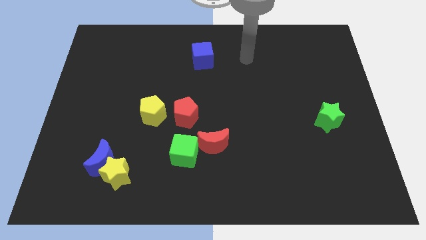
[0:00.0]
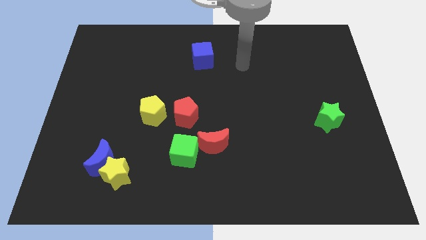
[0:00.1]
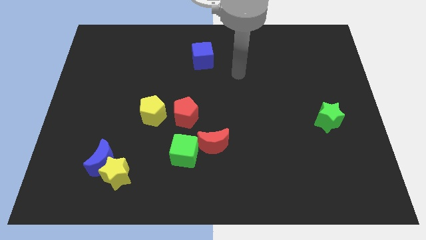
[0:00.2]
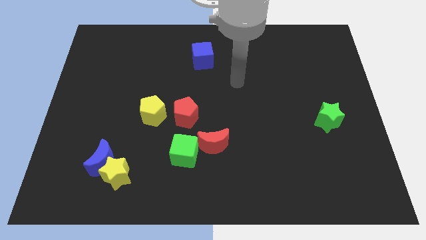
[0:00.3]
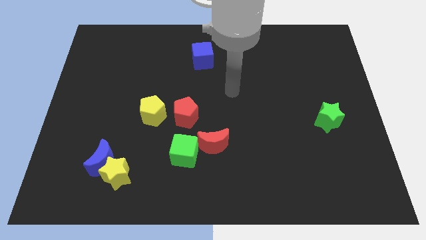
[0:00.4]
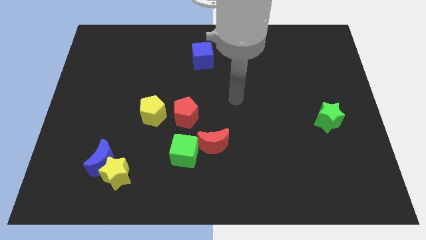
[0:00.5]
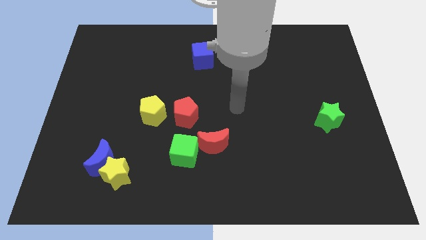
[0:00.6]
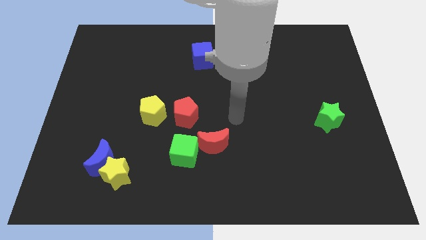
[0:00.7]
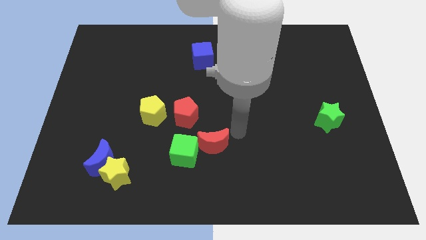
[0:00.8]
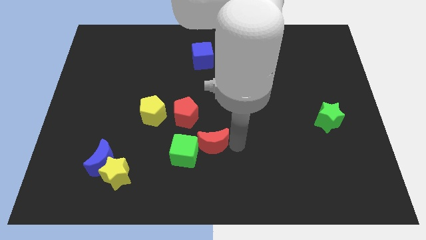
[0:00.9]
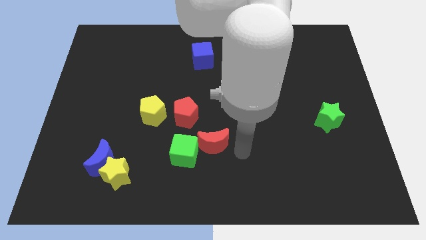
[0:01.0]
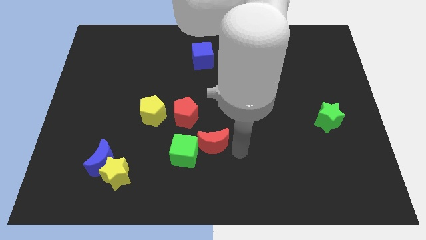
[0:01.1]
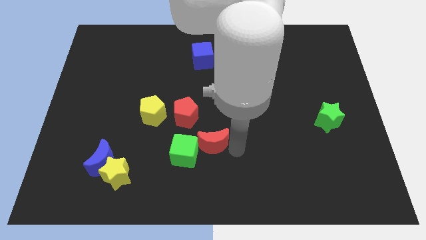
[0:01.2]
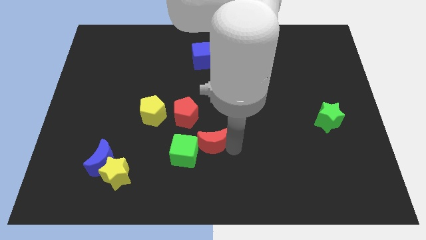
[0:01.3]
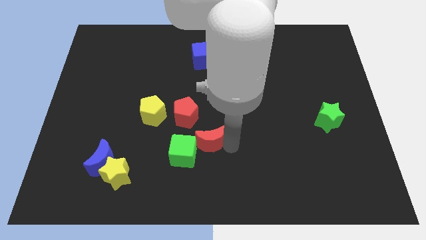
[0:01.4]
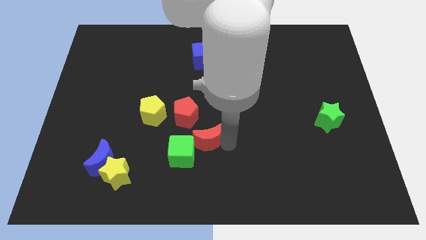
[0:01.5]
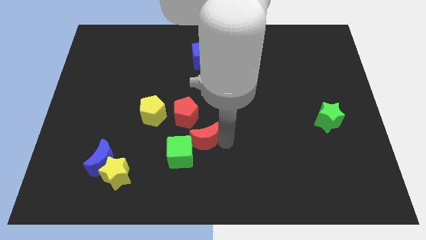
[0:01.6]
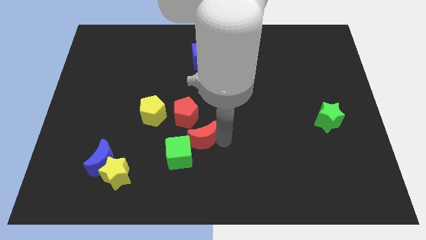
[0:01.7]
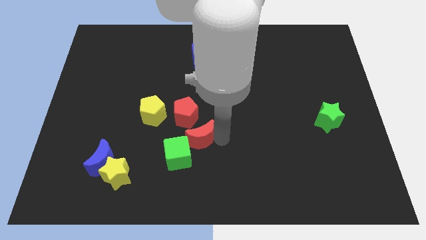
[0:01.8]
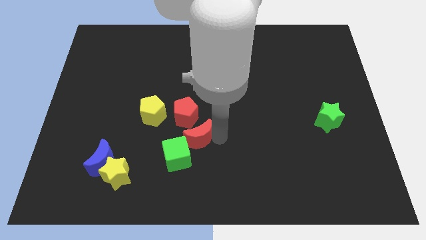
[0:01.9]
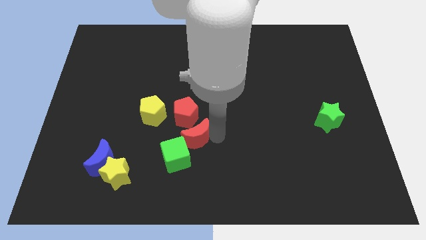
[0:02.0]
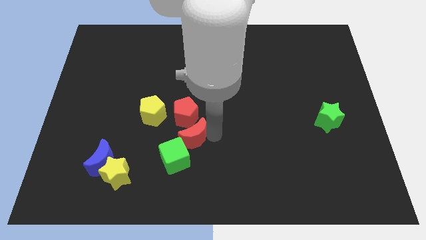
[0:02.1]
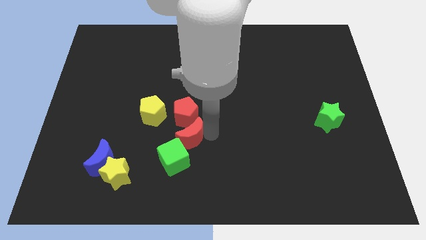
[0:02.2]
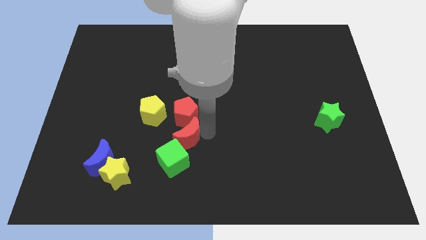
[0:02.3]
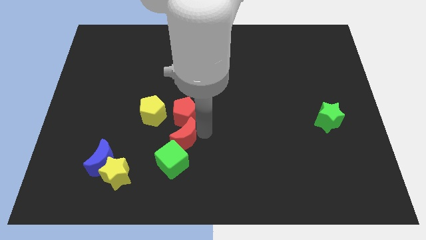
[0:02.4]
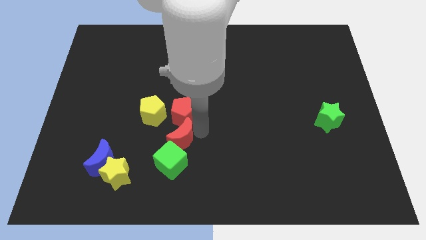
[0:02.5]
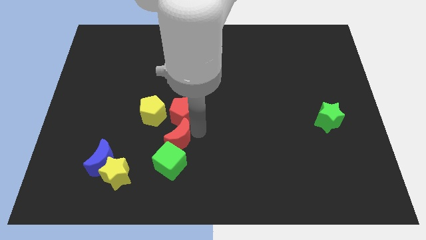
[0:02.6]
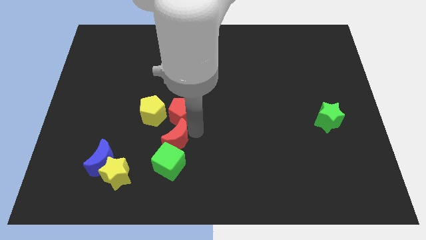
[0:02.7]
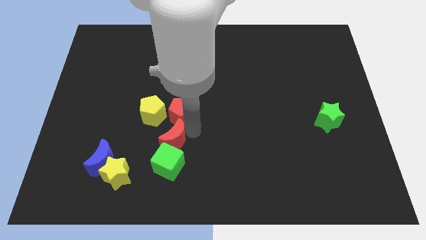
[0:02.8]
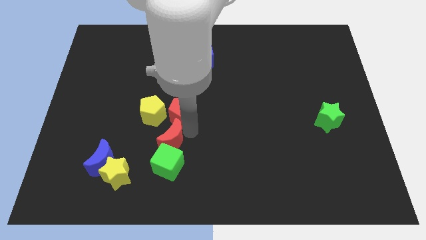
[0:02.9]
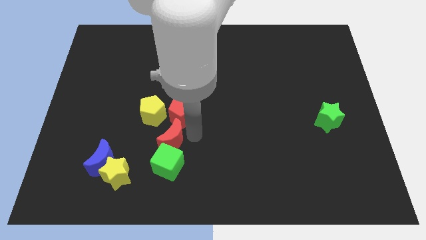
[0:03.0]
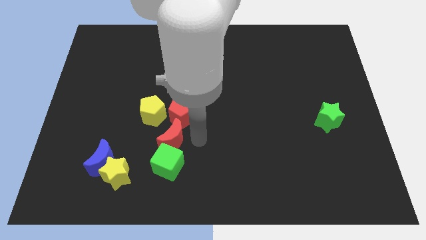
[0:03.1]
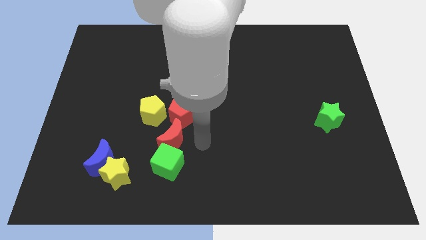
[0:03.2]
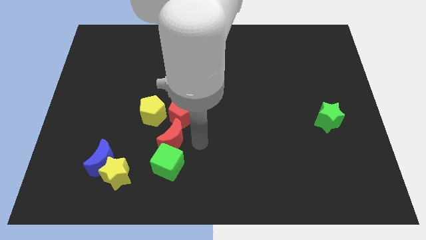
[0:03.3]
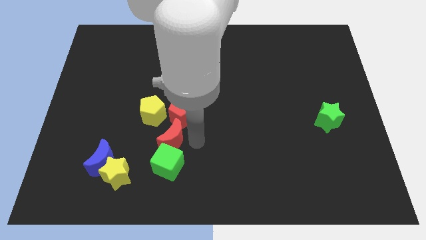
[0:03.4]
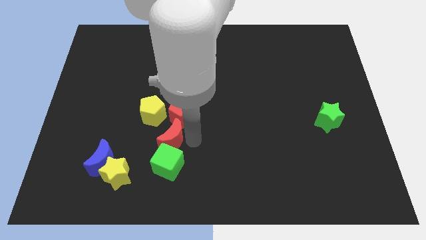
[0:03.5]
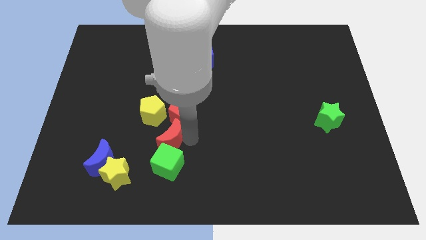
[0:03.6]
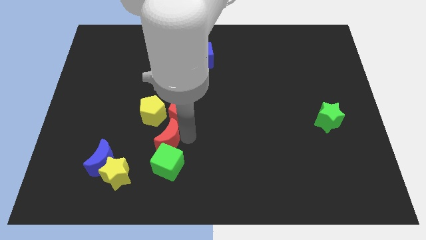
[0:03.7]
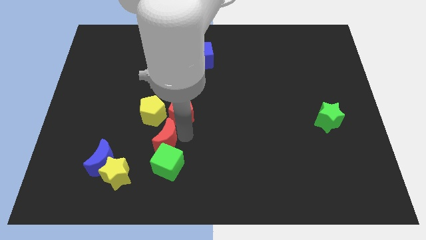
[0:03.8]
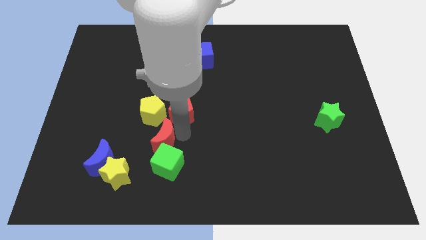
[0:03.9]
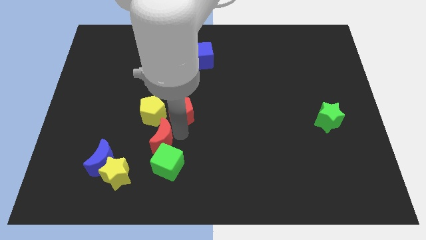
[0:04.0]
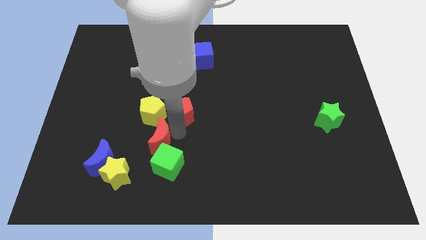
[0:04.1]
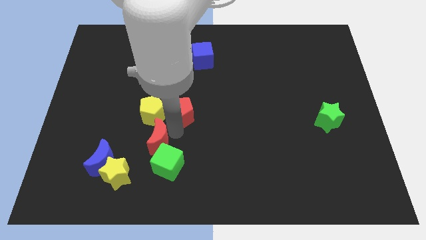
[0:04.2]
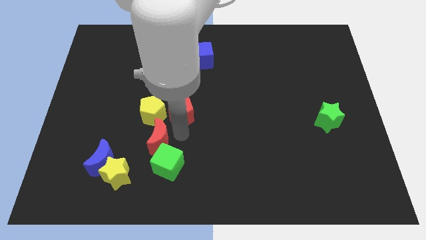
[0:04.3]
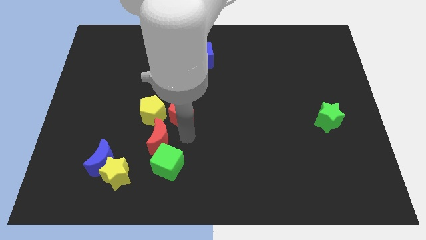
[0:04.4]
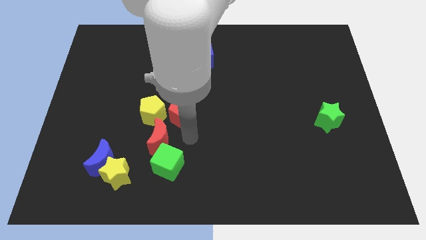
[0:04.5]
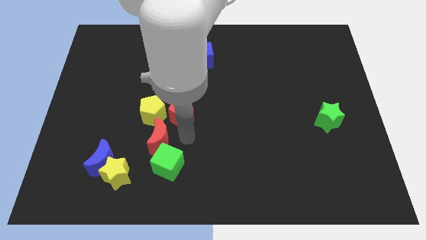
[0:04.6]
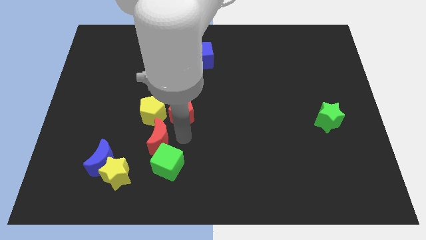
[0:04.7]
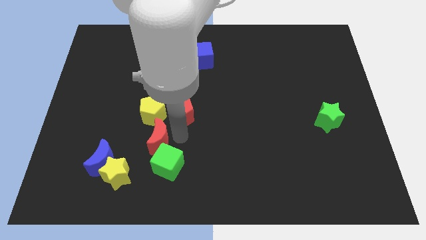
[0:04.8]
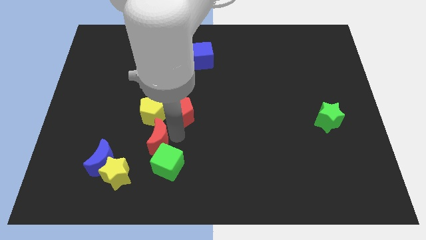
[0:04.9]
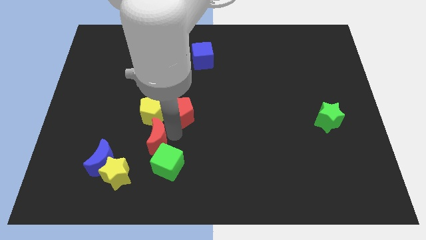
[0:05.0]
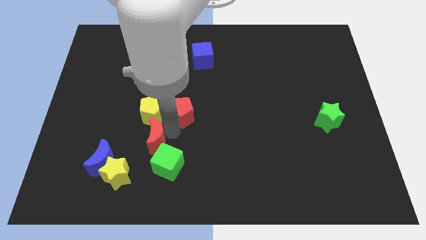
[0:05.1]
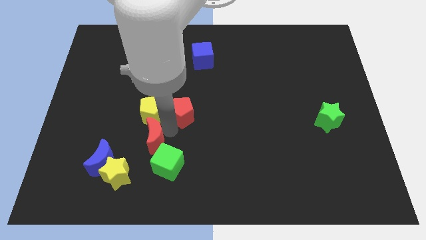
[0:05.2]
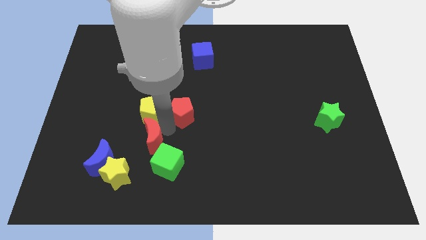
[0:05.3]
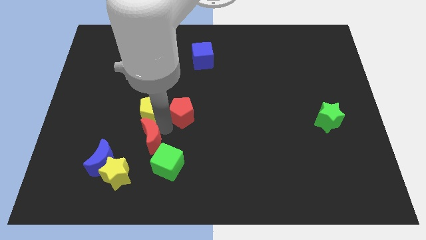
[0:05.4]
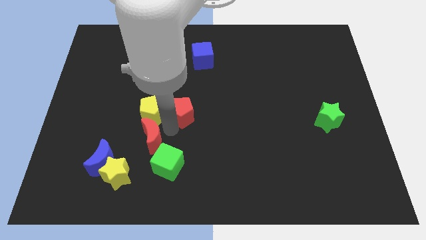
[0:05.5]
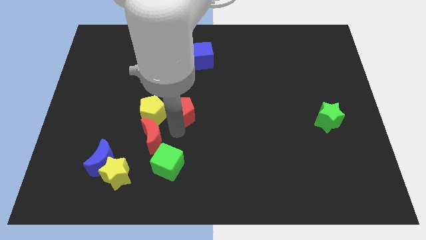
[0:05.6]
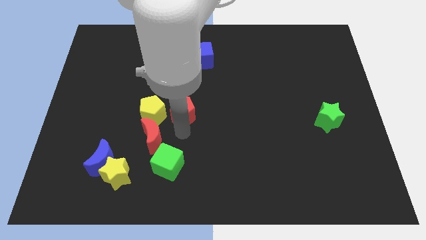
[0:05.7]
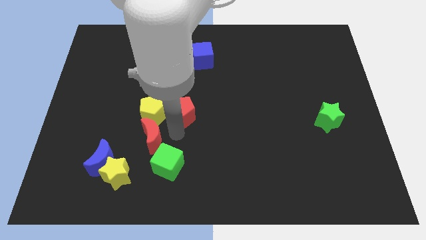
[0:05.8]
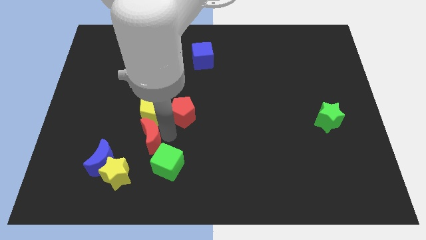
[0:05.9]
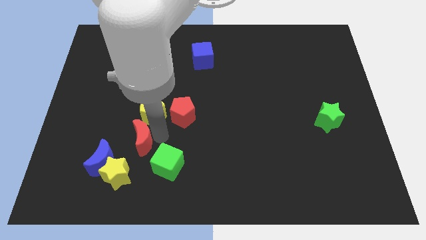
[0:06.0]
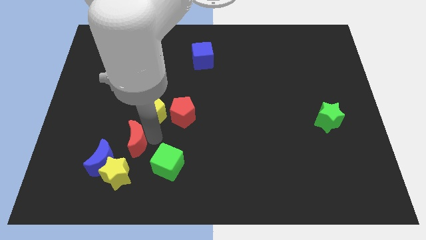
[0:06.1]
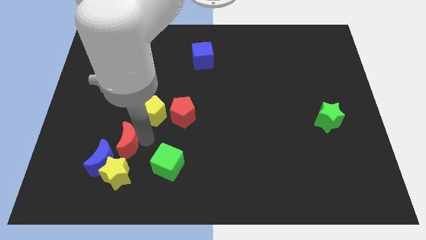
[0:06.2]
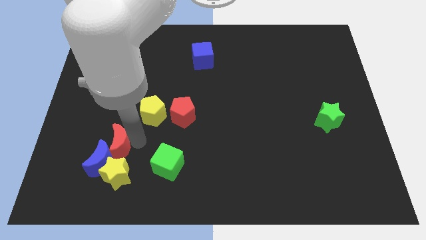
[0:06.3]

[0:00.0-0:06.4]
push the red moon close to the blue moon
